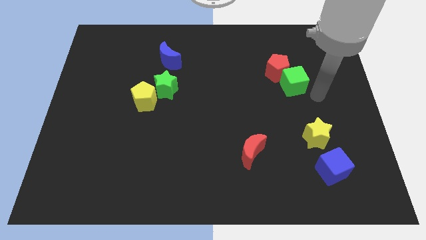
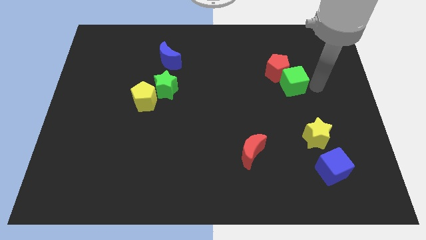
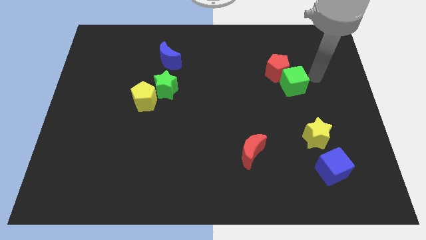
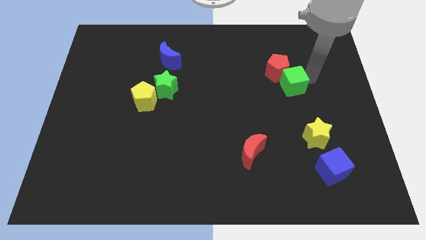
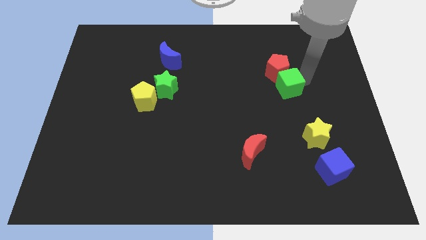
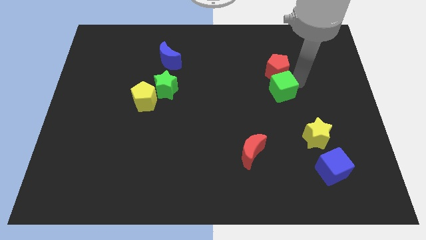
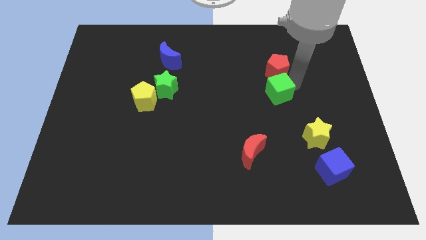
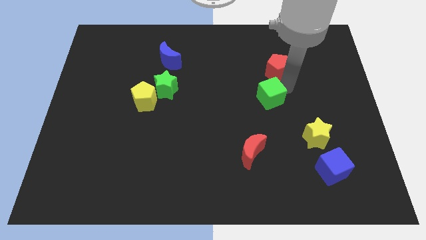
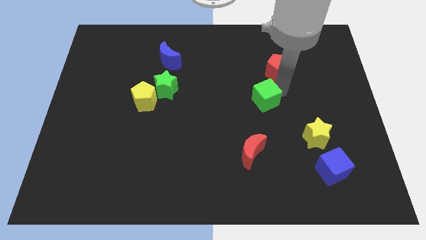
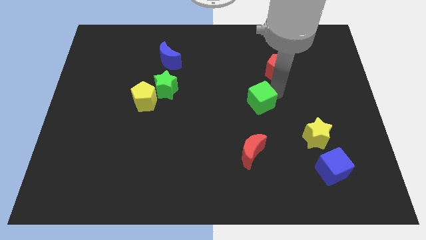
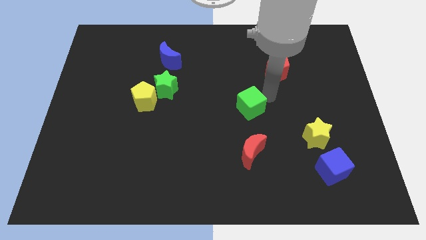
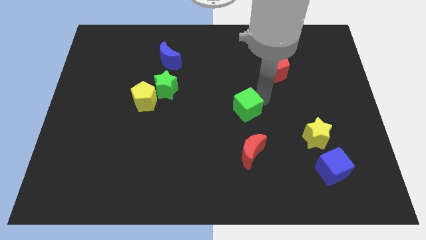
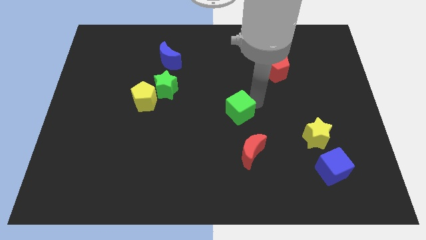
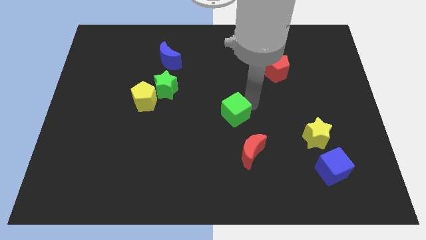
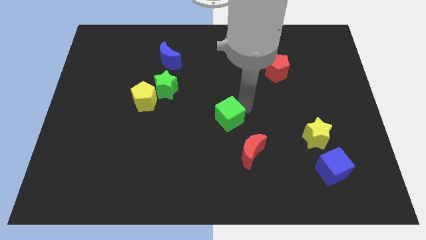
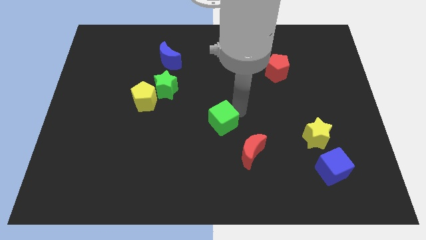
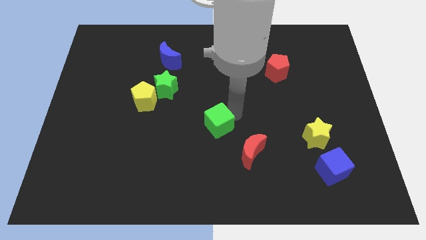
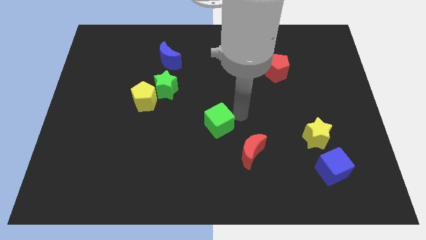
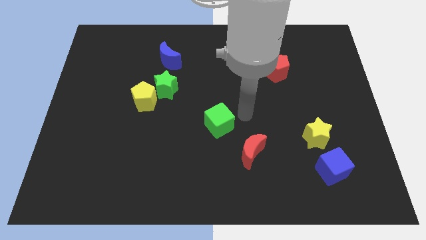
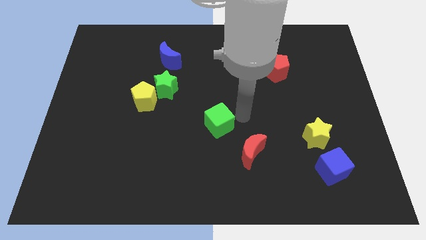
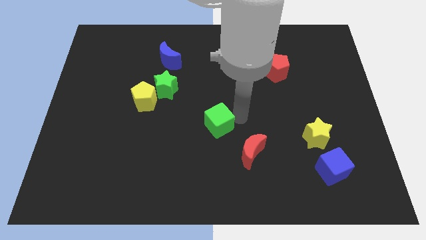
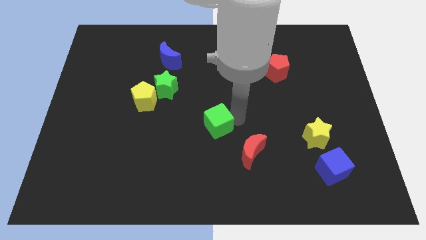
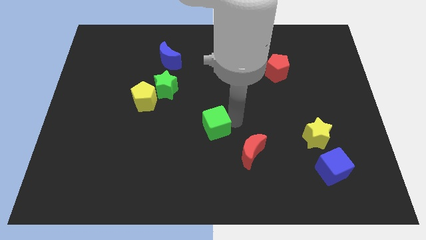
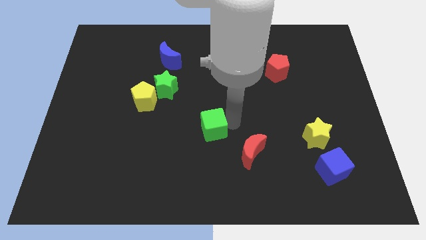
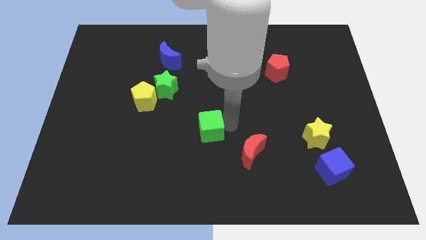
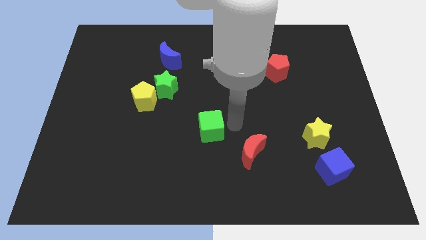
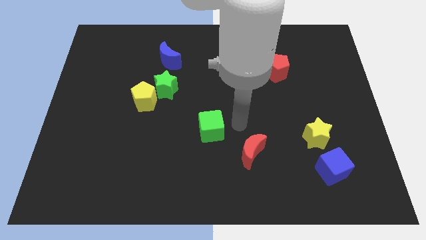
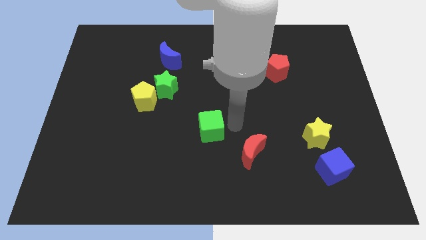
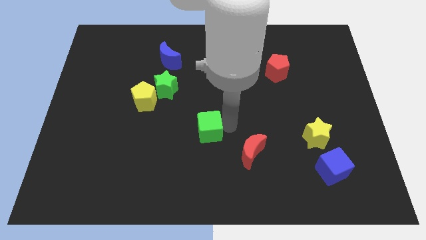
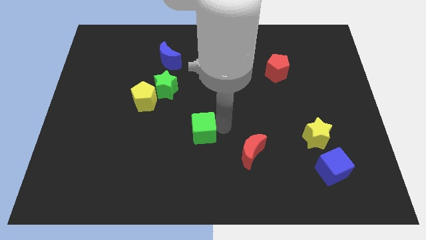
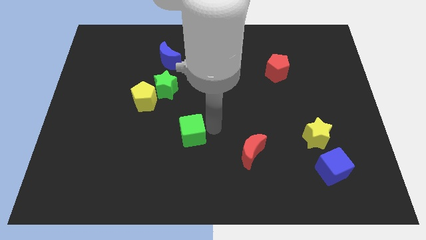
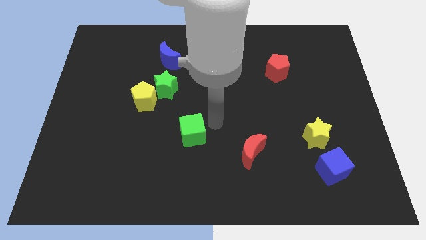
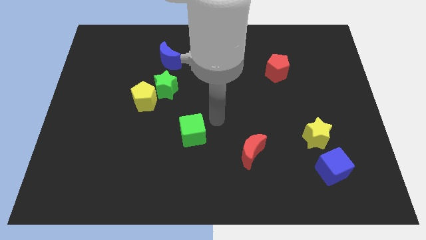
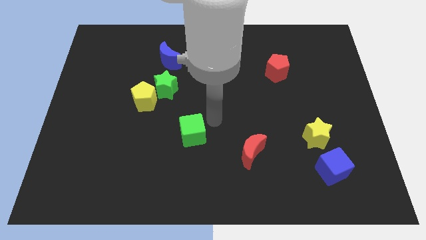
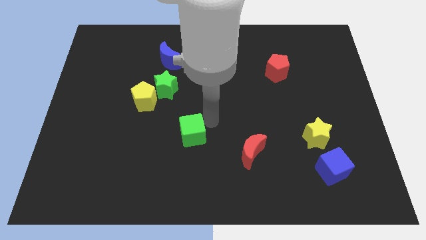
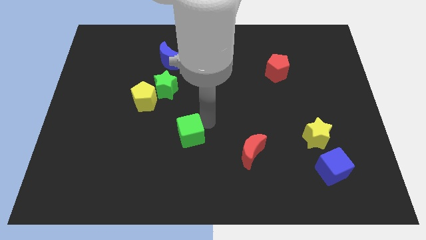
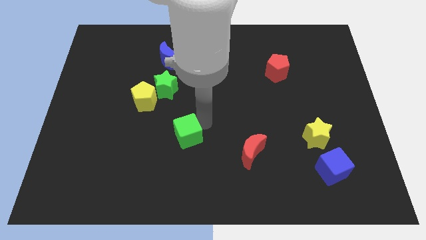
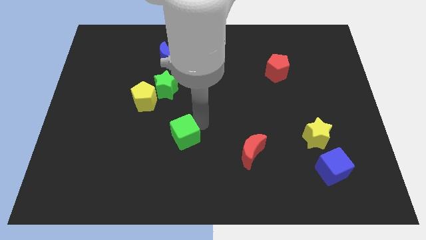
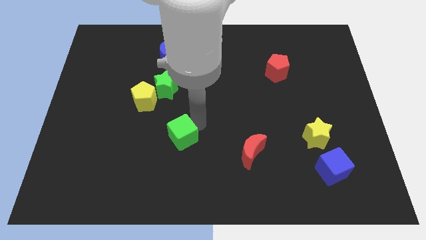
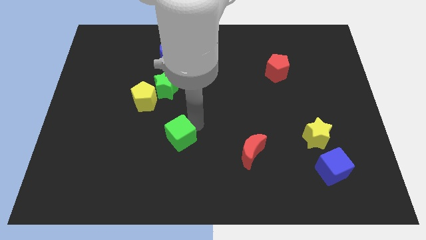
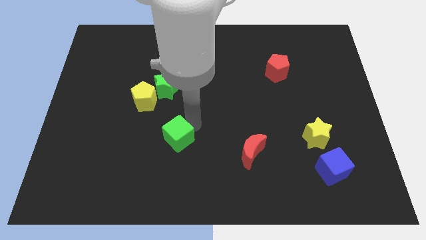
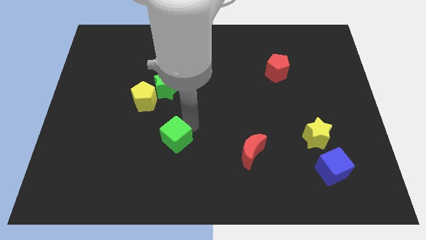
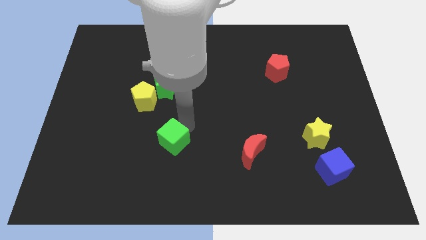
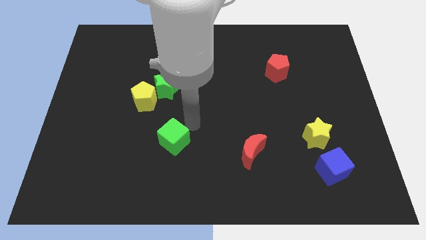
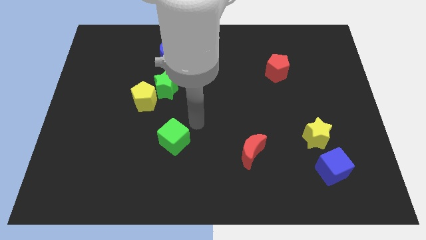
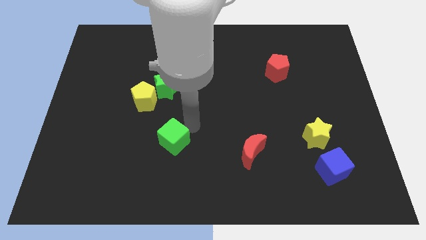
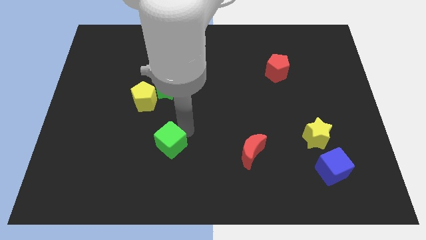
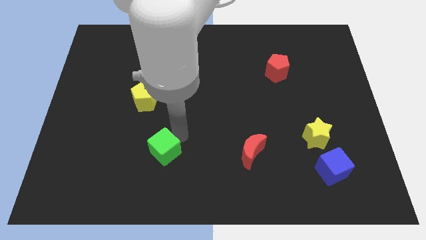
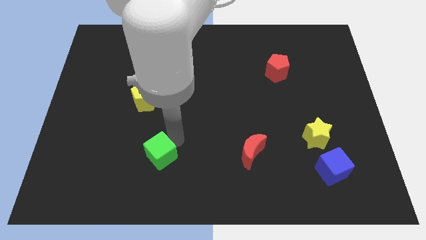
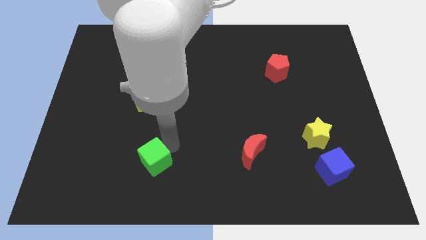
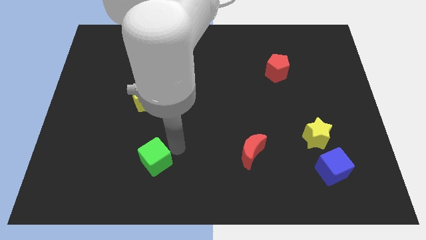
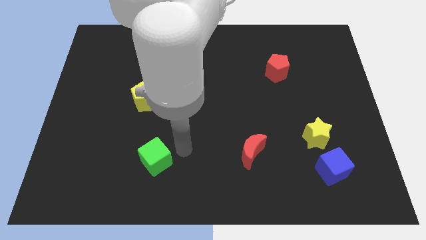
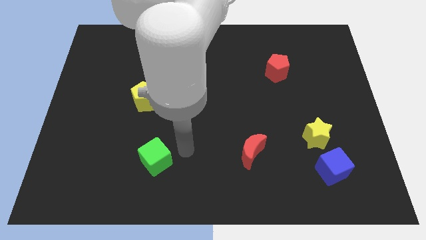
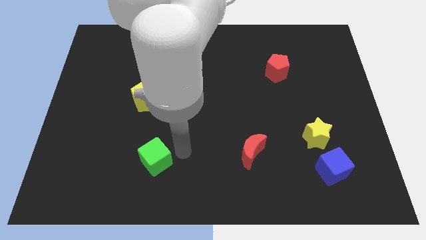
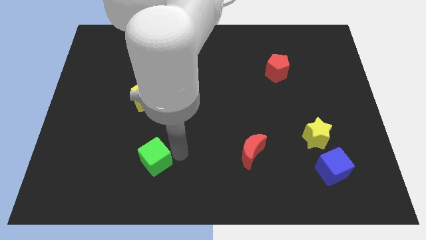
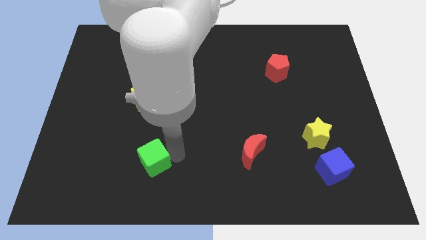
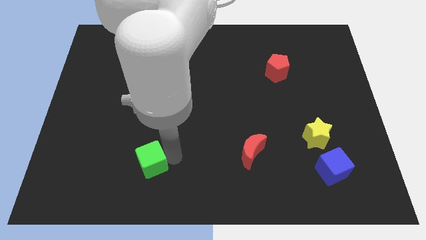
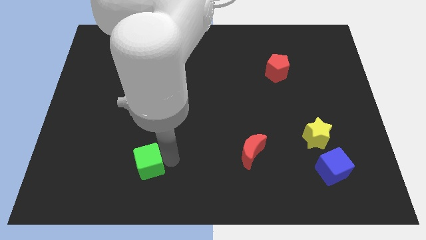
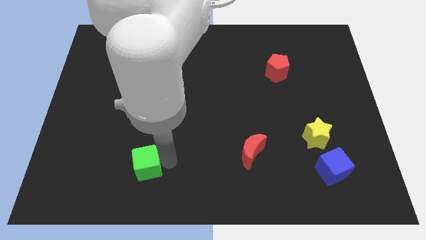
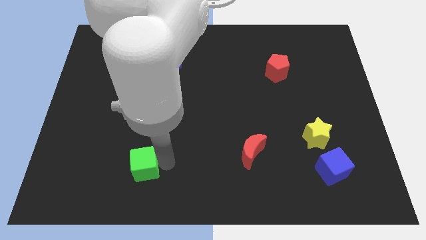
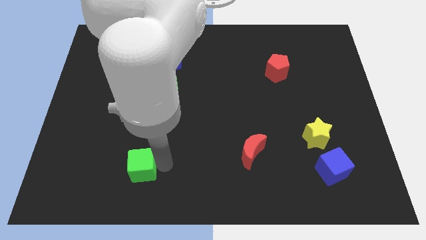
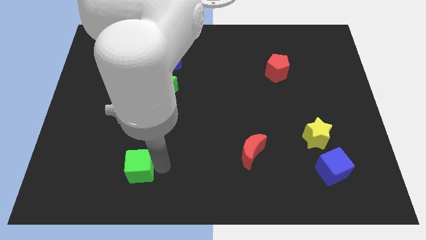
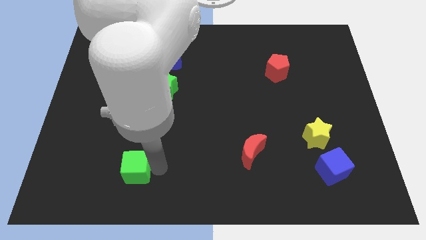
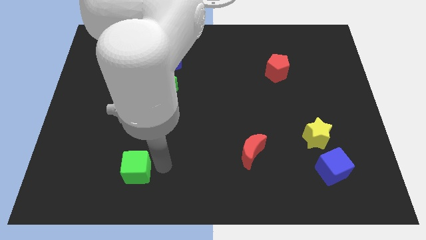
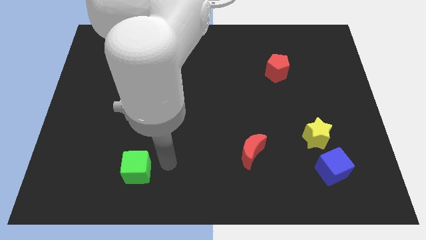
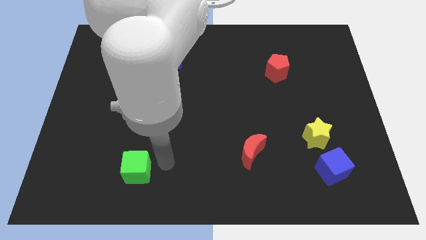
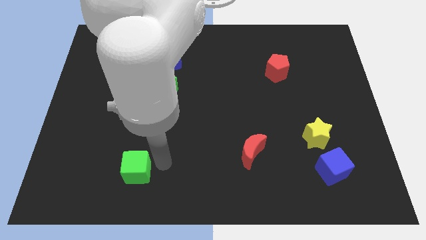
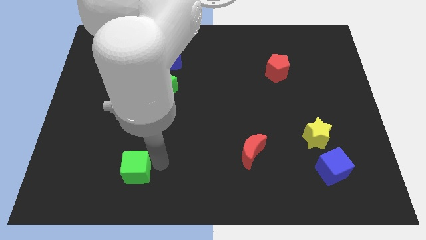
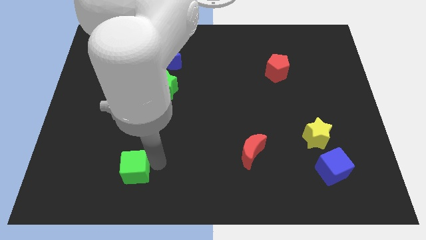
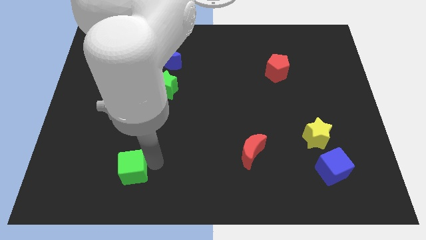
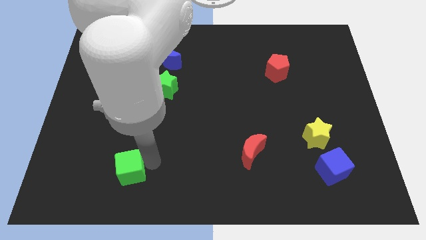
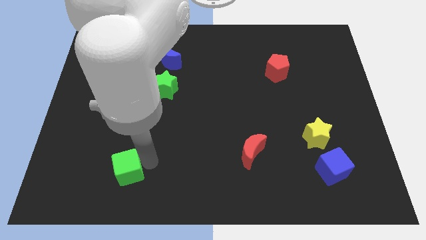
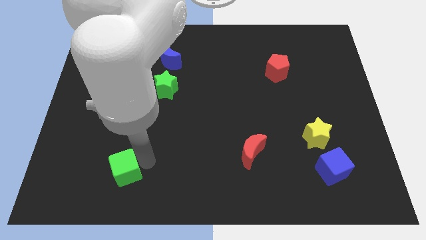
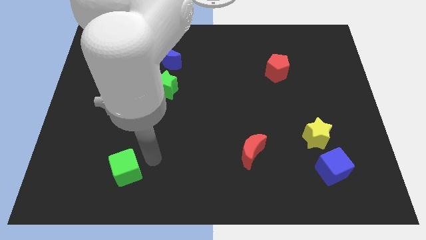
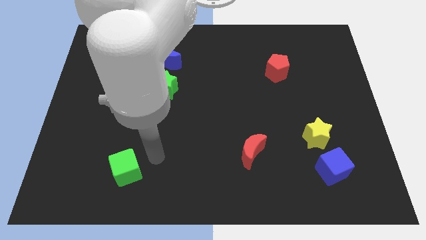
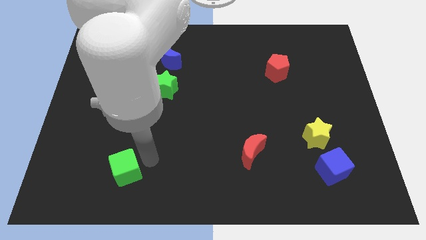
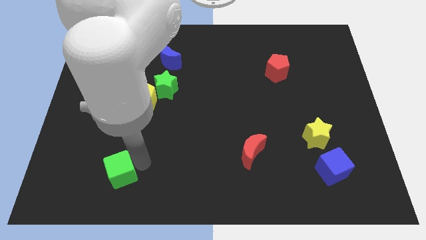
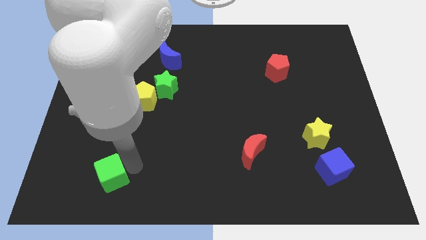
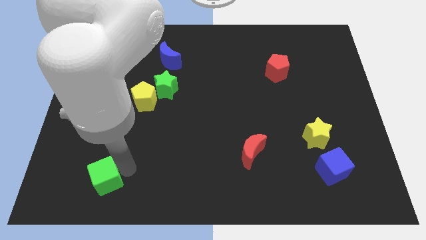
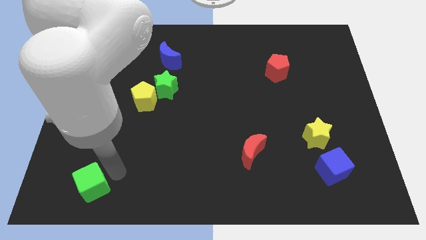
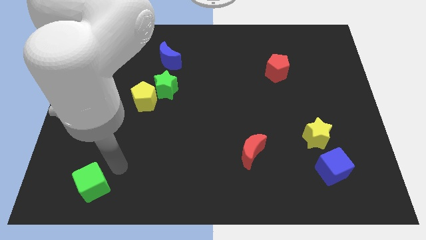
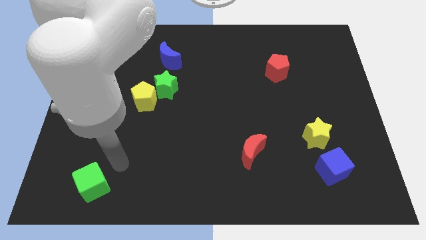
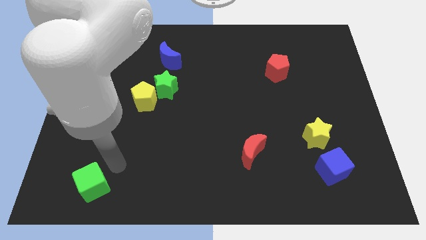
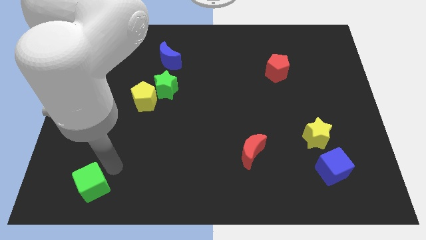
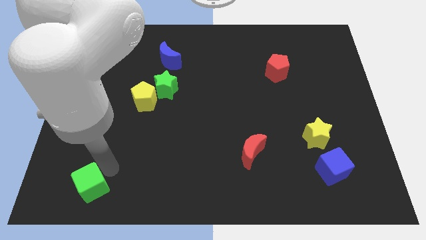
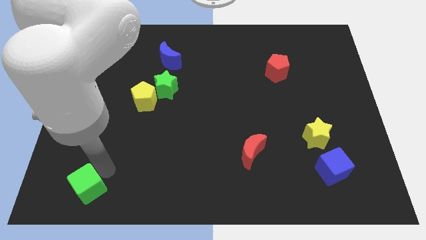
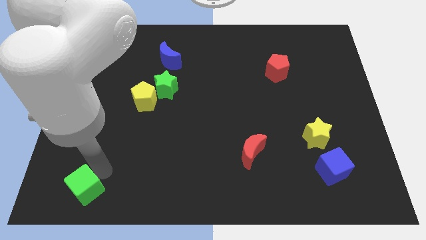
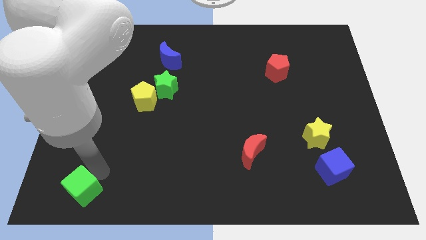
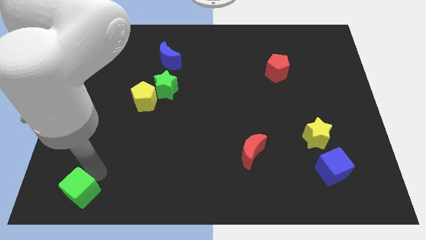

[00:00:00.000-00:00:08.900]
slide the green cube to the bottom left corner
